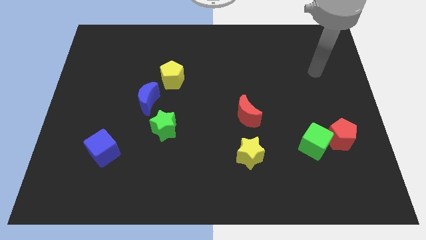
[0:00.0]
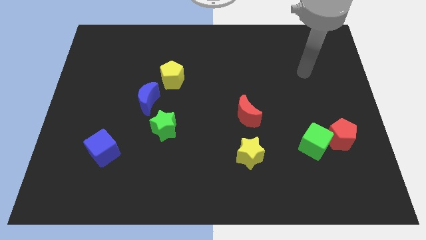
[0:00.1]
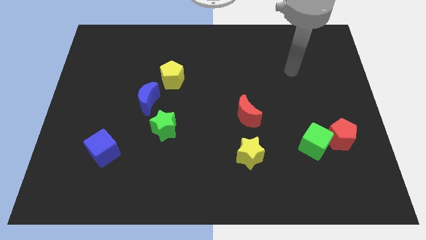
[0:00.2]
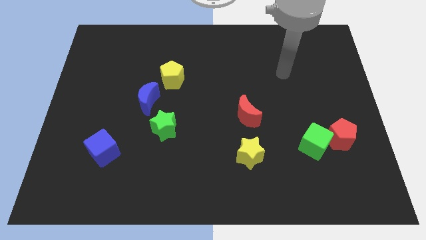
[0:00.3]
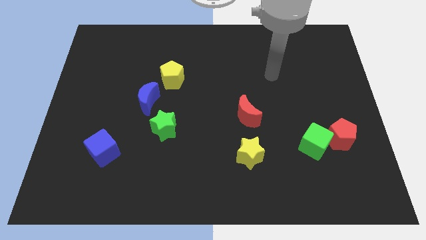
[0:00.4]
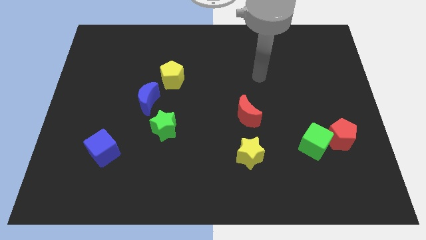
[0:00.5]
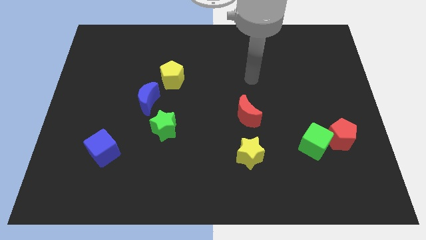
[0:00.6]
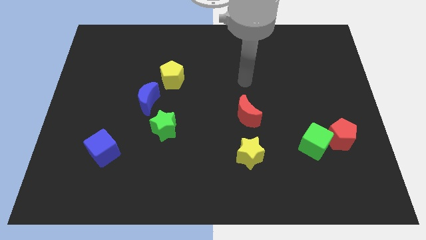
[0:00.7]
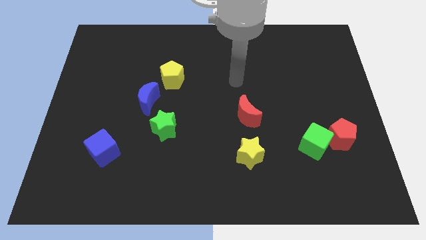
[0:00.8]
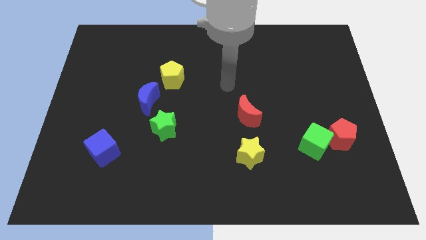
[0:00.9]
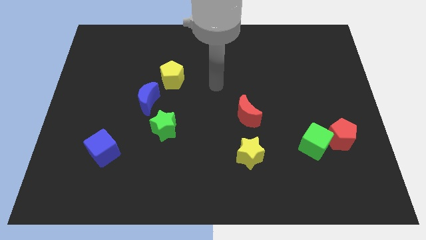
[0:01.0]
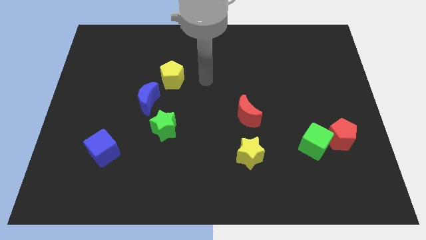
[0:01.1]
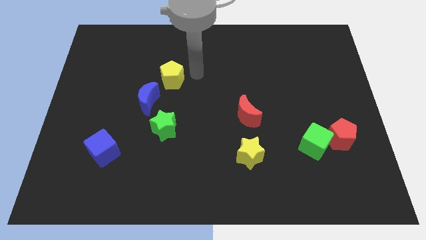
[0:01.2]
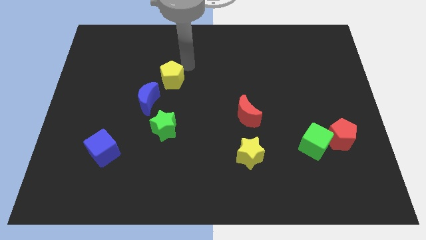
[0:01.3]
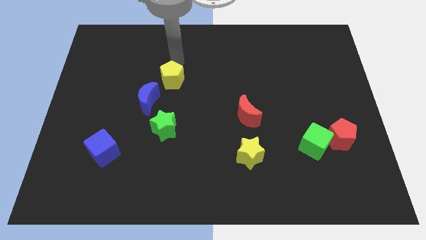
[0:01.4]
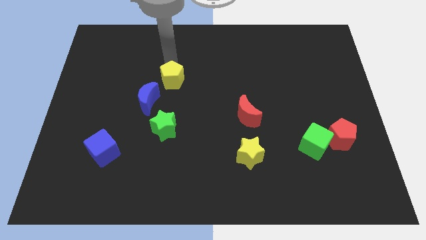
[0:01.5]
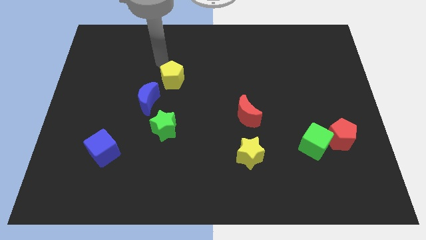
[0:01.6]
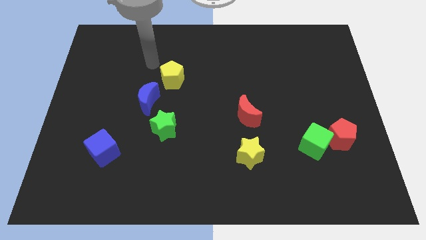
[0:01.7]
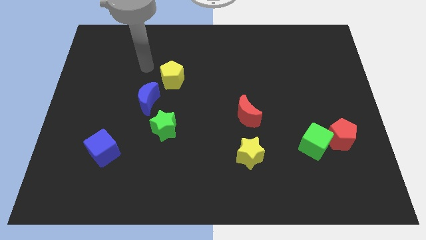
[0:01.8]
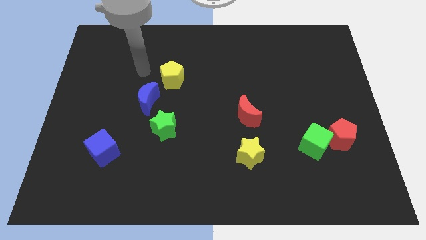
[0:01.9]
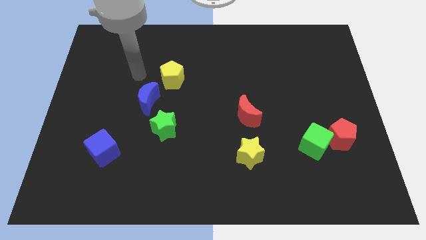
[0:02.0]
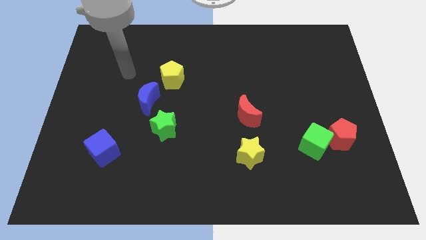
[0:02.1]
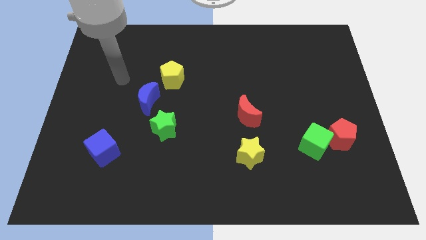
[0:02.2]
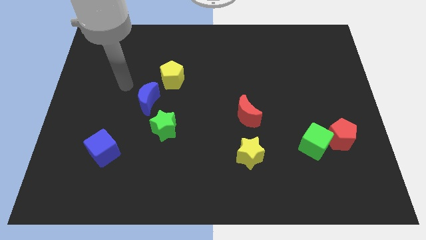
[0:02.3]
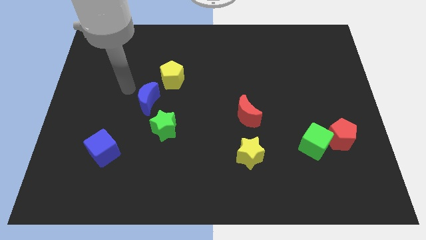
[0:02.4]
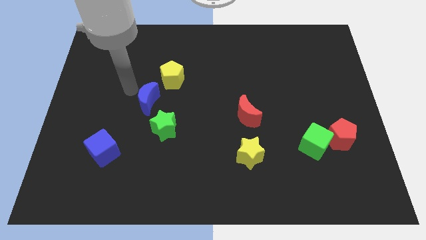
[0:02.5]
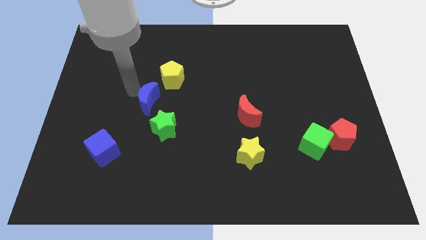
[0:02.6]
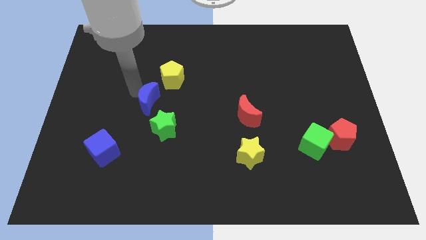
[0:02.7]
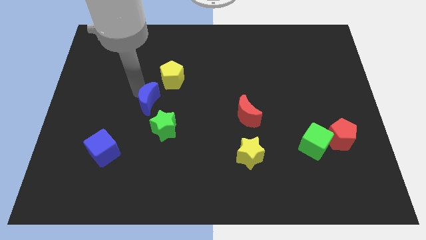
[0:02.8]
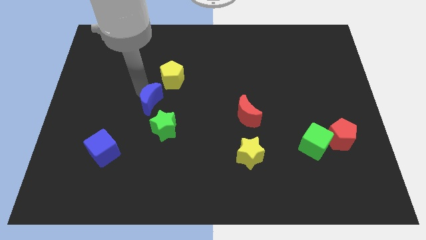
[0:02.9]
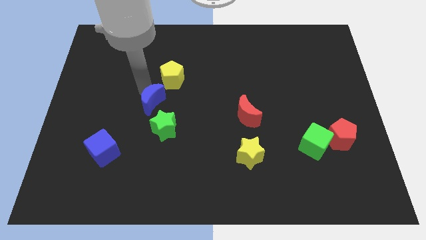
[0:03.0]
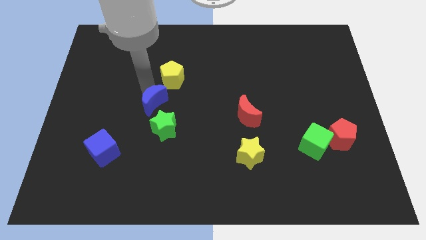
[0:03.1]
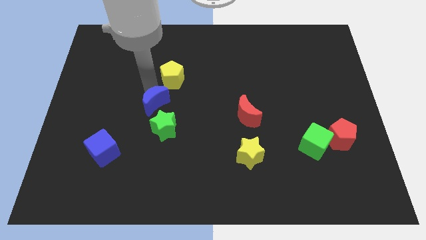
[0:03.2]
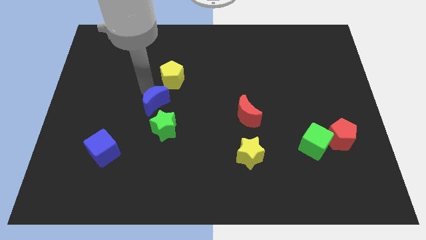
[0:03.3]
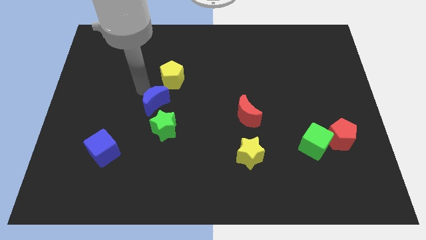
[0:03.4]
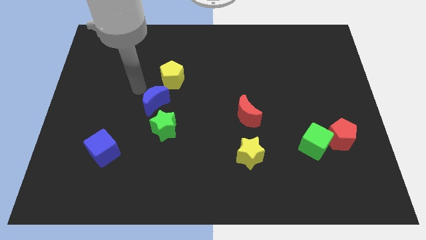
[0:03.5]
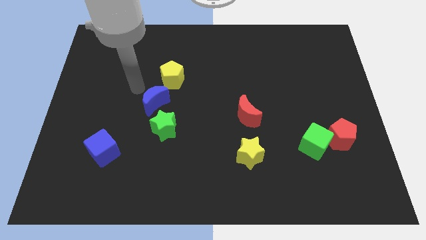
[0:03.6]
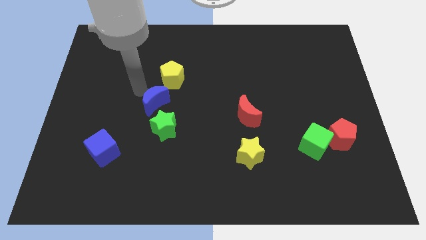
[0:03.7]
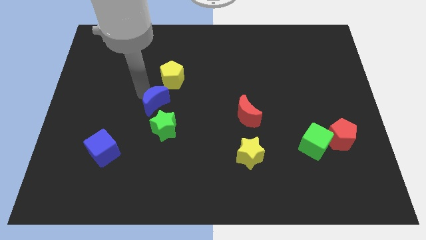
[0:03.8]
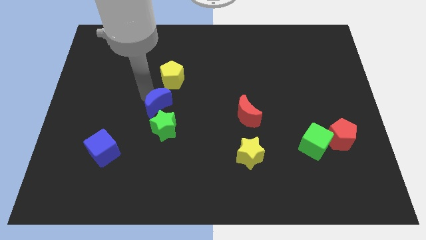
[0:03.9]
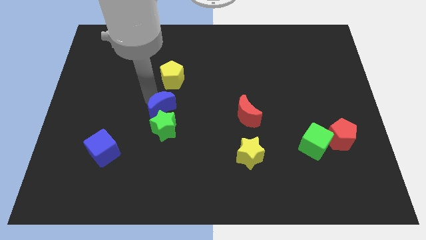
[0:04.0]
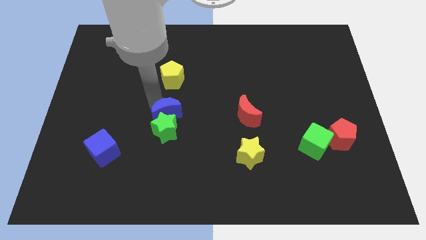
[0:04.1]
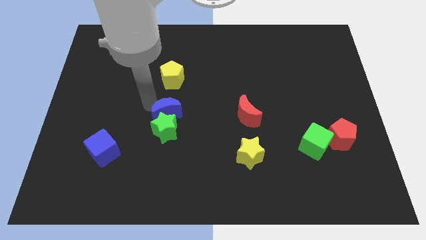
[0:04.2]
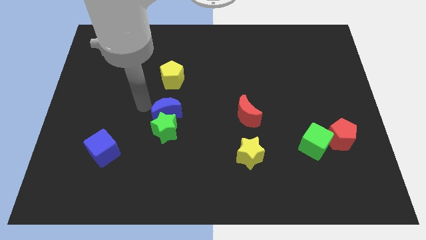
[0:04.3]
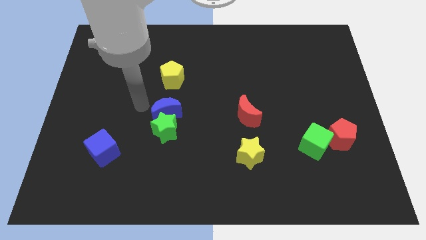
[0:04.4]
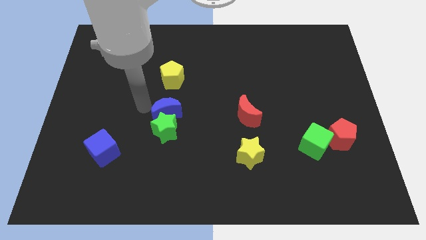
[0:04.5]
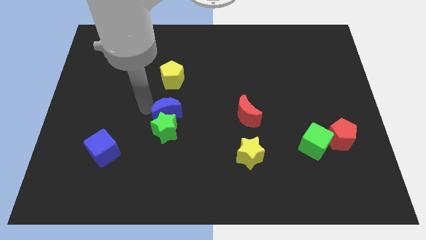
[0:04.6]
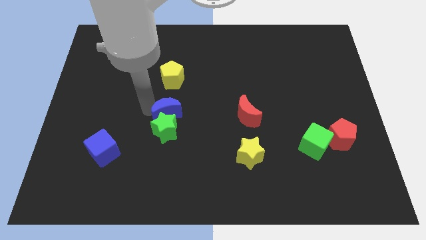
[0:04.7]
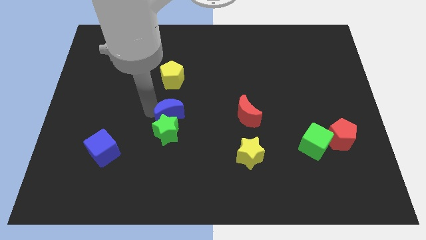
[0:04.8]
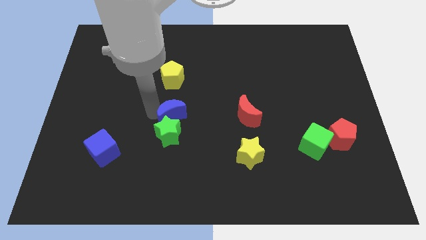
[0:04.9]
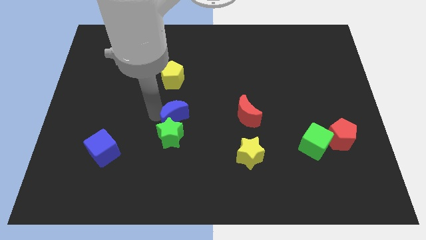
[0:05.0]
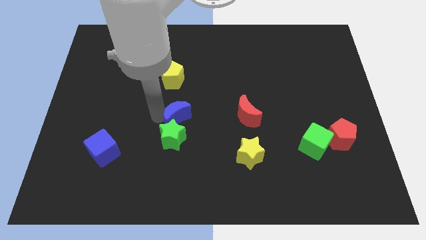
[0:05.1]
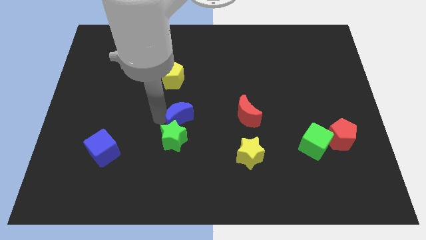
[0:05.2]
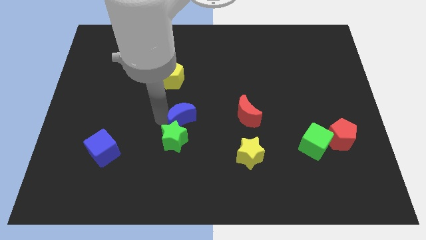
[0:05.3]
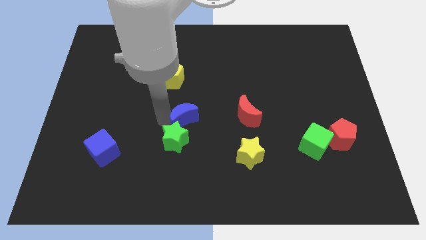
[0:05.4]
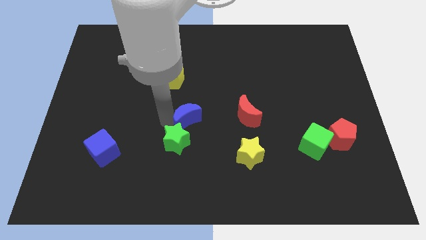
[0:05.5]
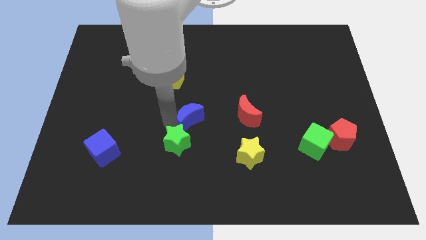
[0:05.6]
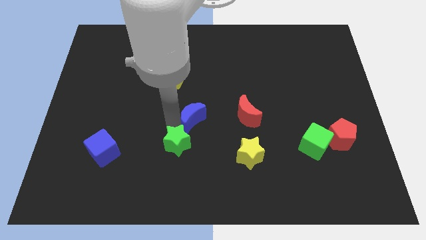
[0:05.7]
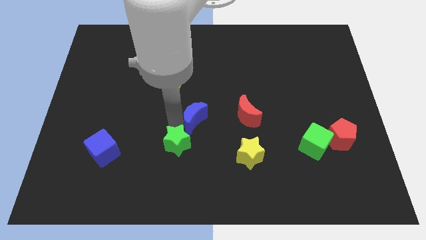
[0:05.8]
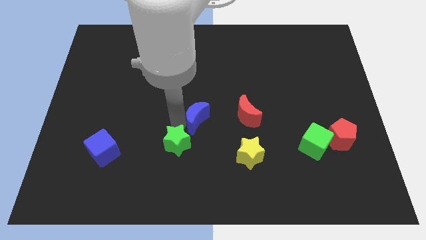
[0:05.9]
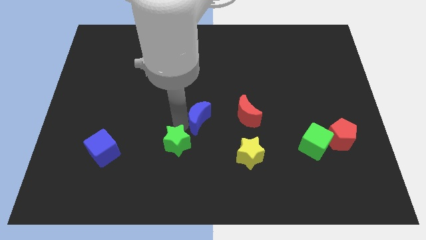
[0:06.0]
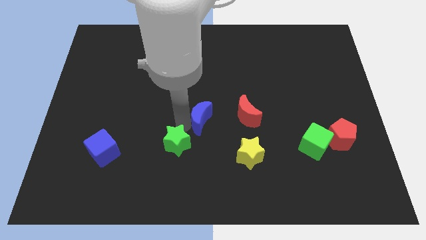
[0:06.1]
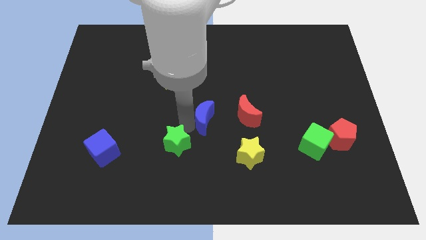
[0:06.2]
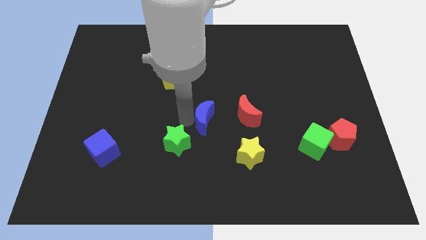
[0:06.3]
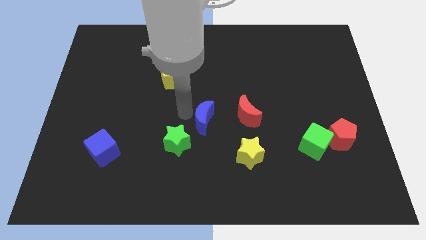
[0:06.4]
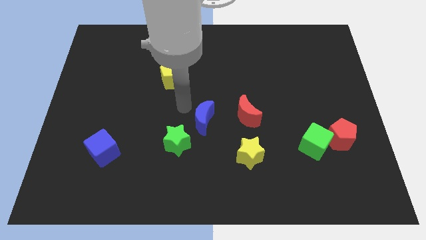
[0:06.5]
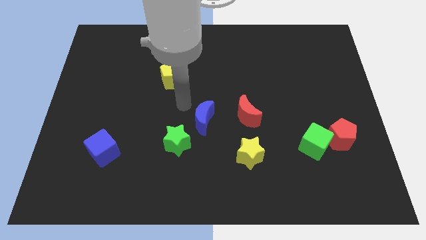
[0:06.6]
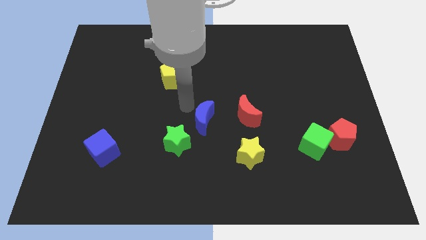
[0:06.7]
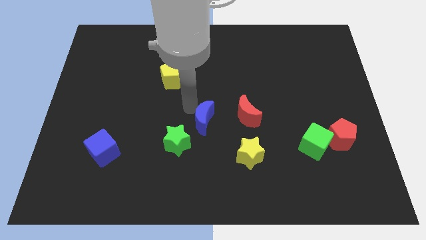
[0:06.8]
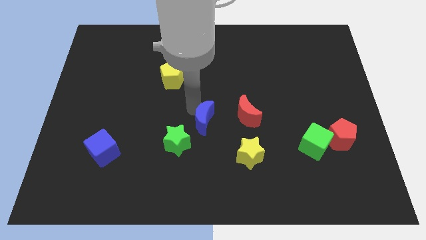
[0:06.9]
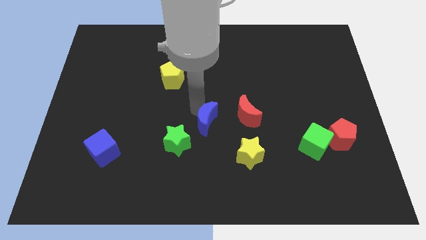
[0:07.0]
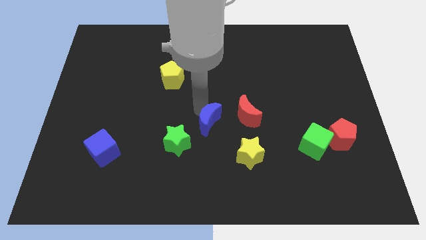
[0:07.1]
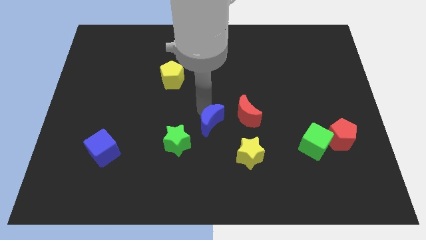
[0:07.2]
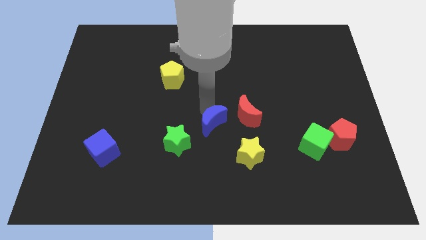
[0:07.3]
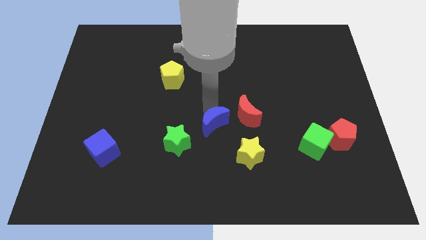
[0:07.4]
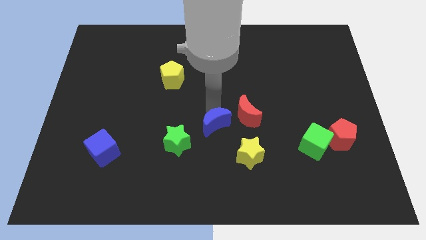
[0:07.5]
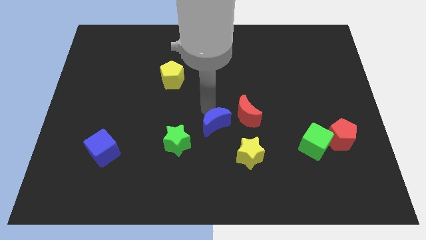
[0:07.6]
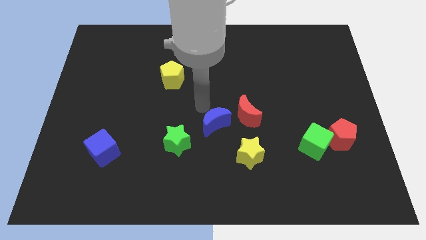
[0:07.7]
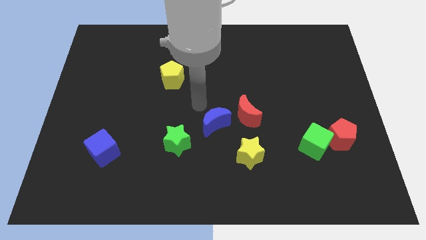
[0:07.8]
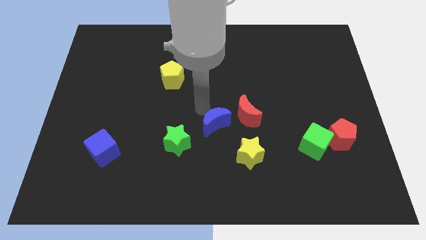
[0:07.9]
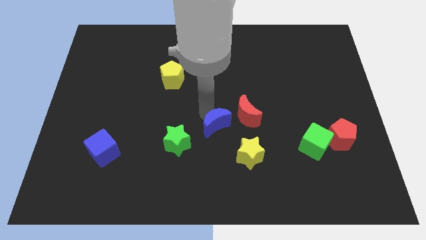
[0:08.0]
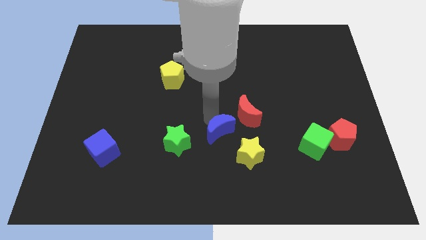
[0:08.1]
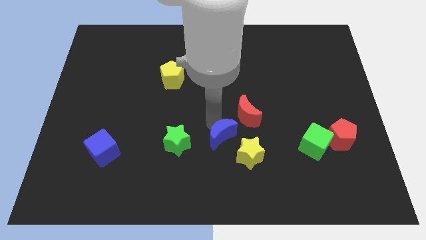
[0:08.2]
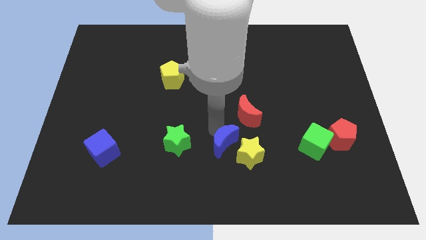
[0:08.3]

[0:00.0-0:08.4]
slide the blue moon next to the yellow star
